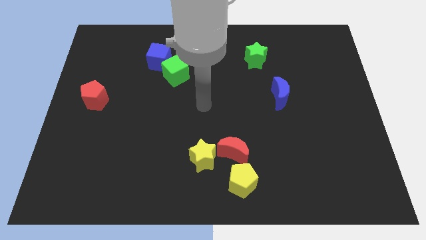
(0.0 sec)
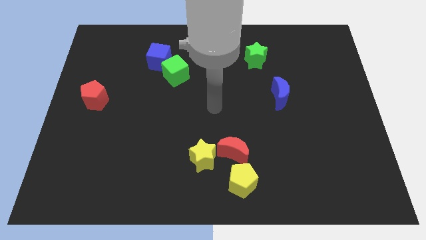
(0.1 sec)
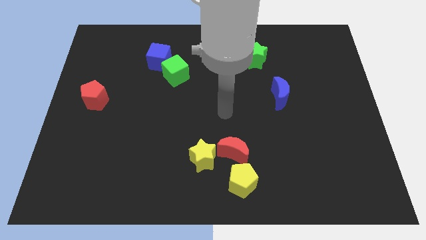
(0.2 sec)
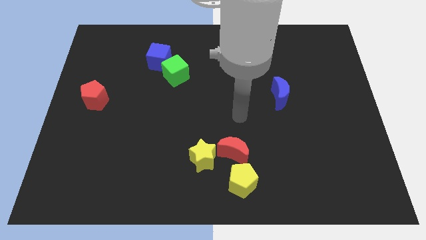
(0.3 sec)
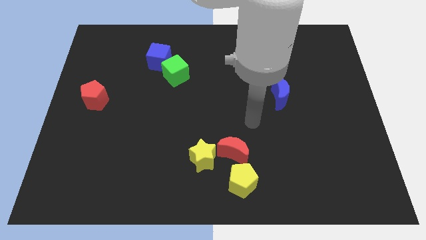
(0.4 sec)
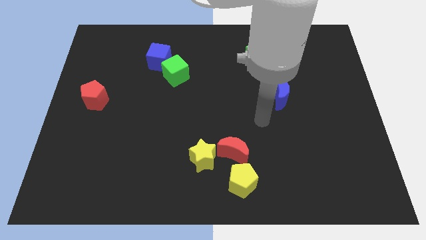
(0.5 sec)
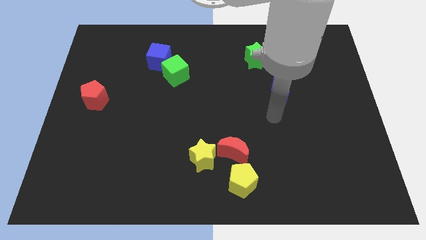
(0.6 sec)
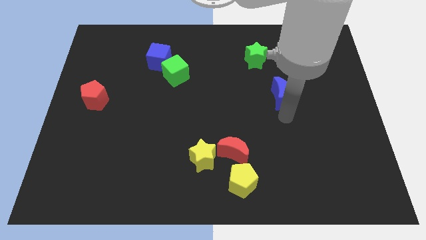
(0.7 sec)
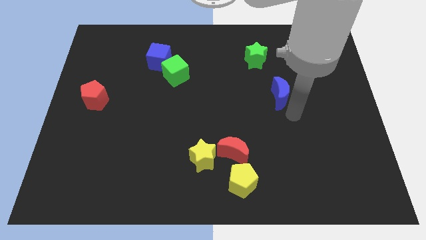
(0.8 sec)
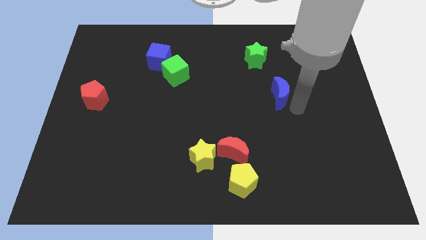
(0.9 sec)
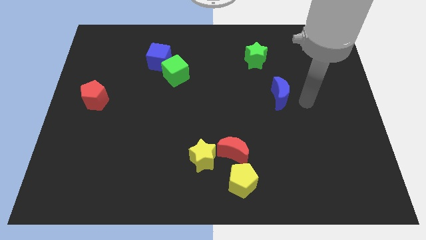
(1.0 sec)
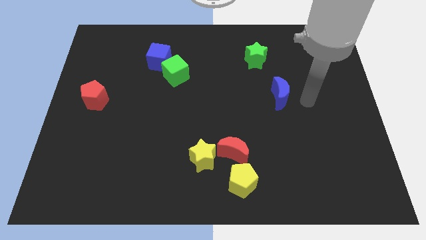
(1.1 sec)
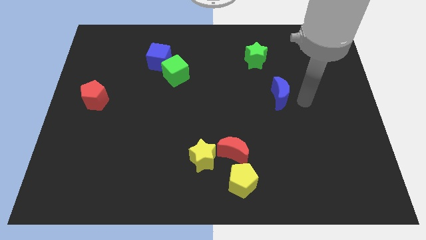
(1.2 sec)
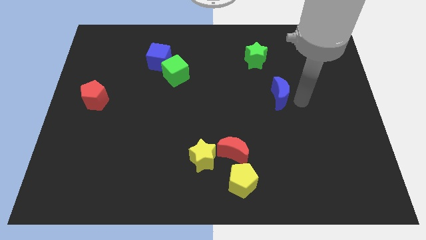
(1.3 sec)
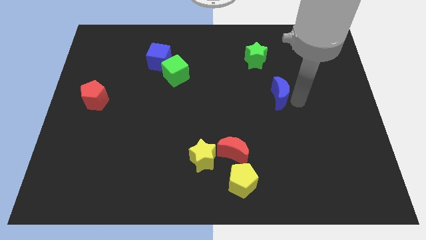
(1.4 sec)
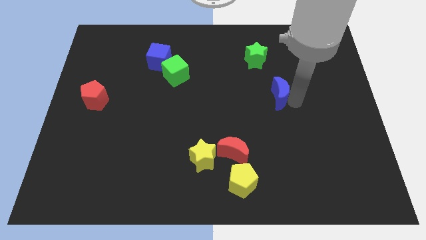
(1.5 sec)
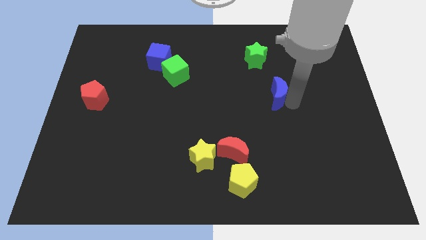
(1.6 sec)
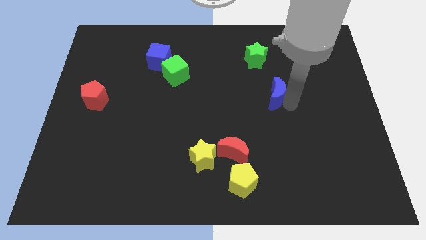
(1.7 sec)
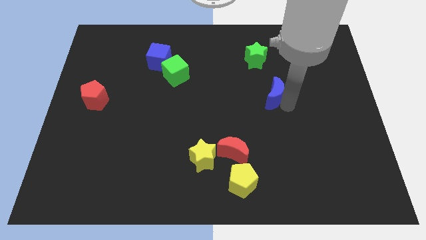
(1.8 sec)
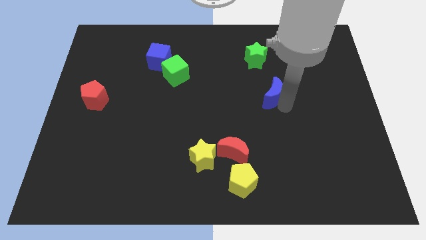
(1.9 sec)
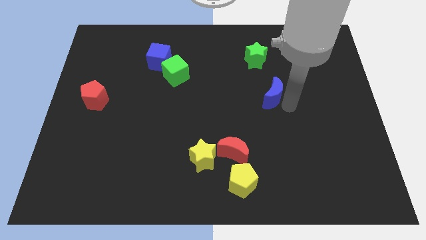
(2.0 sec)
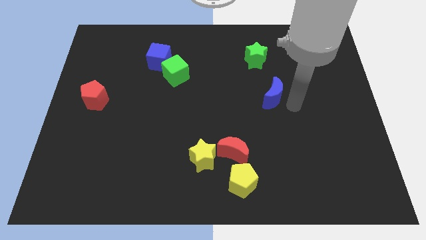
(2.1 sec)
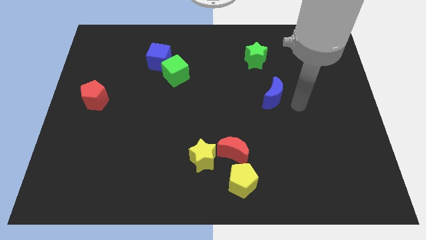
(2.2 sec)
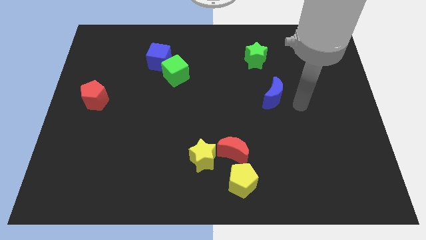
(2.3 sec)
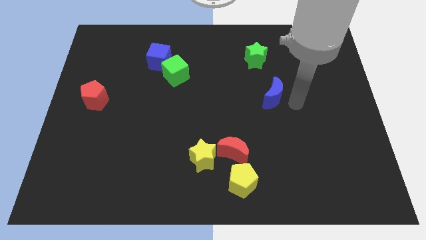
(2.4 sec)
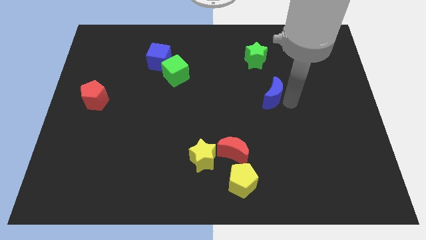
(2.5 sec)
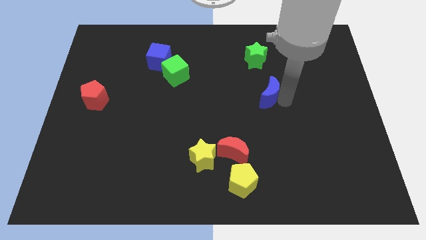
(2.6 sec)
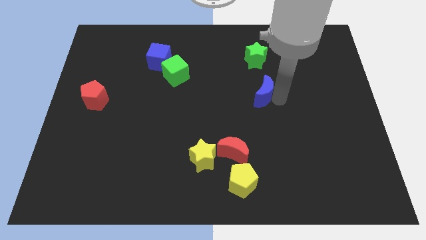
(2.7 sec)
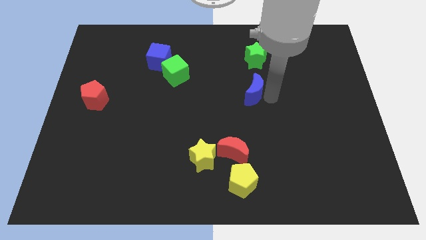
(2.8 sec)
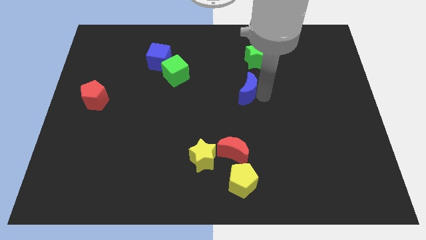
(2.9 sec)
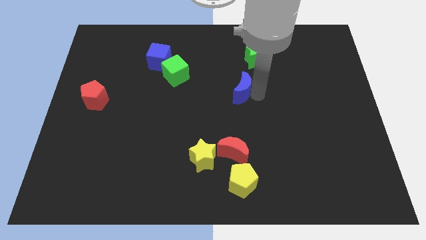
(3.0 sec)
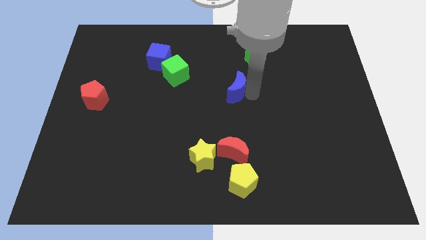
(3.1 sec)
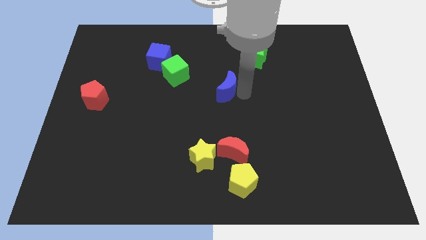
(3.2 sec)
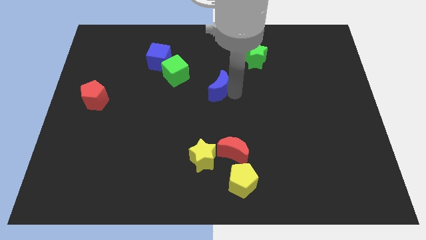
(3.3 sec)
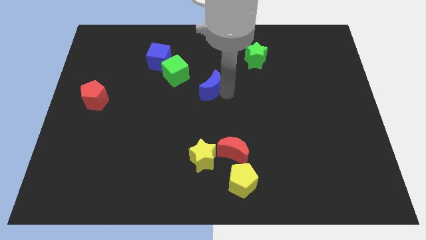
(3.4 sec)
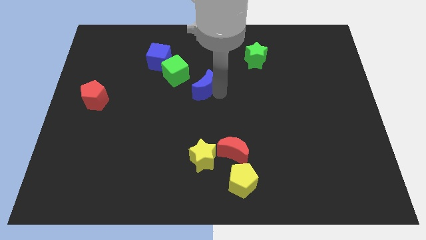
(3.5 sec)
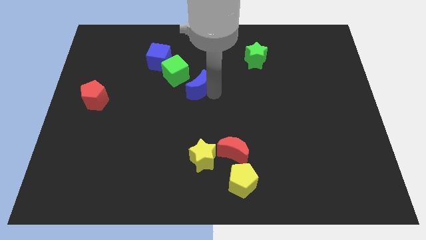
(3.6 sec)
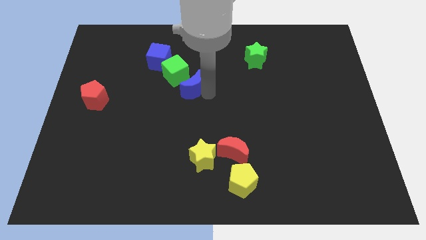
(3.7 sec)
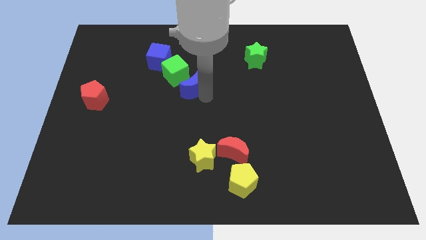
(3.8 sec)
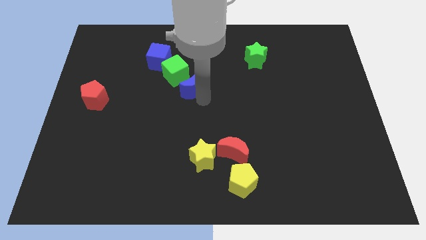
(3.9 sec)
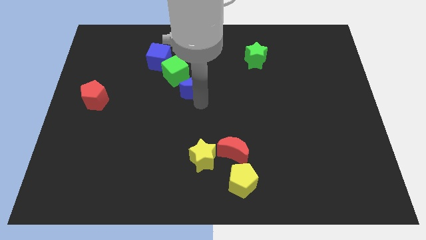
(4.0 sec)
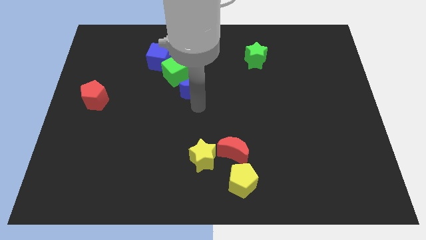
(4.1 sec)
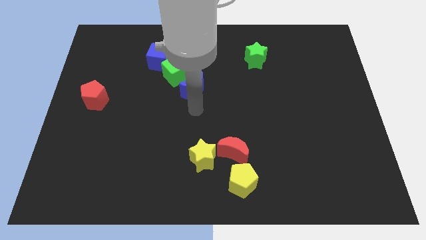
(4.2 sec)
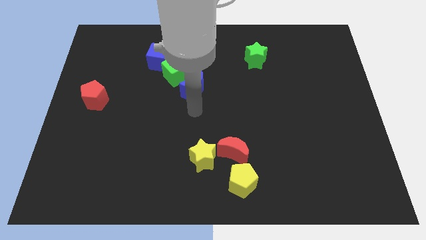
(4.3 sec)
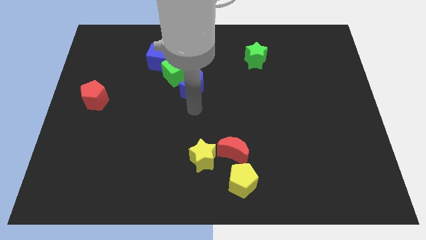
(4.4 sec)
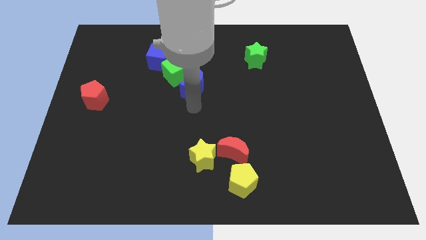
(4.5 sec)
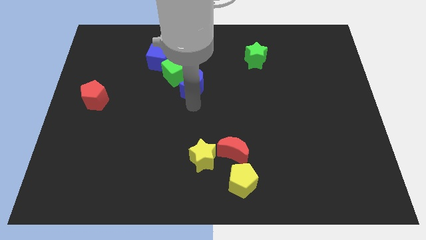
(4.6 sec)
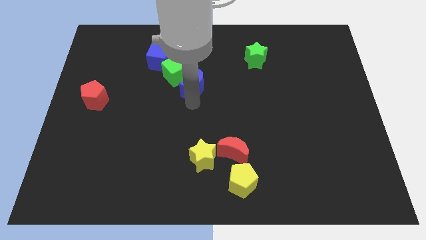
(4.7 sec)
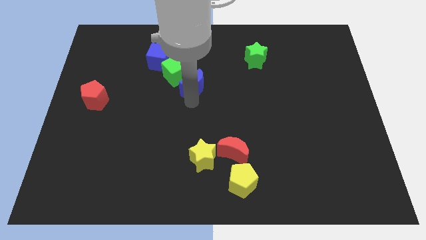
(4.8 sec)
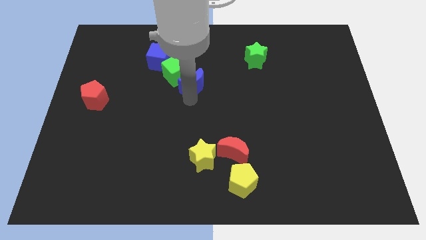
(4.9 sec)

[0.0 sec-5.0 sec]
move the blue moon to the green cube

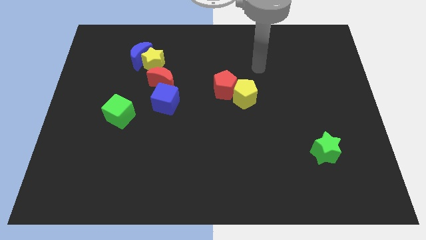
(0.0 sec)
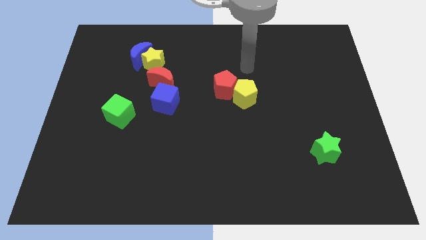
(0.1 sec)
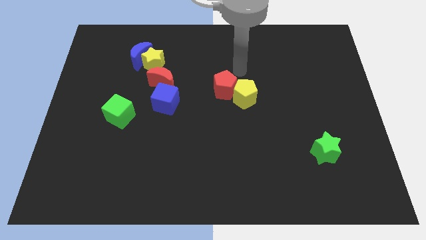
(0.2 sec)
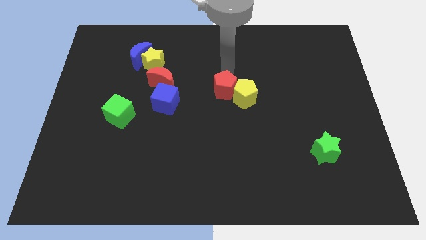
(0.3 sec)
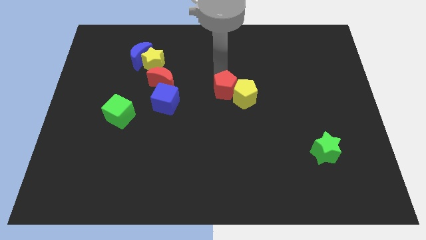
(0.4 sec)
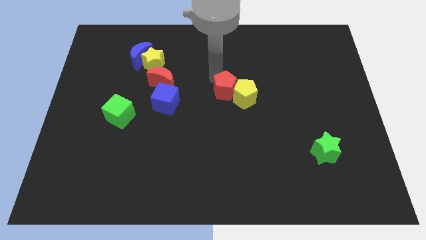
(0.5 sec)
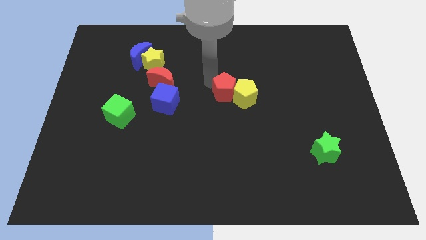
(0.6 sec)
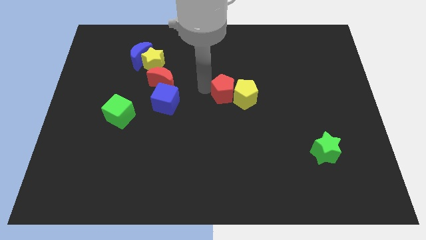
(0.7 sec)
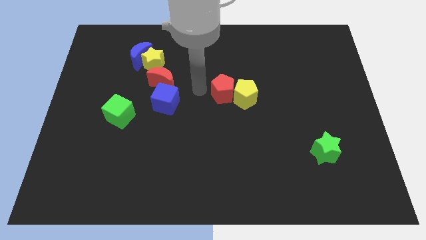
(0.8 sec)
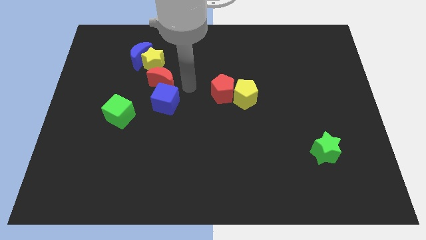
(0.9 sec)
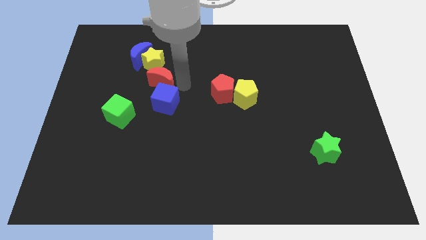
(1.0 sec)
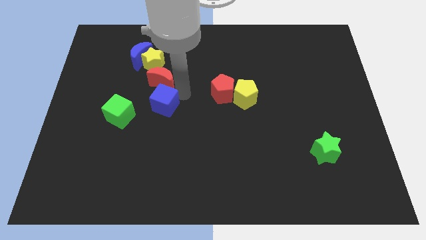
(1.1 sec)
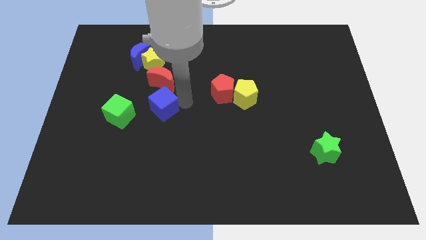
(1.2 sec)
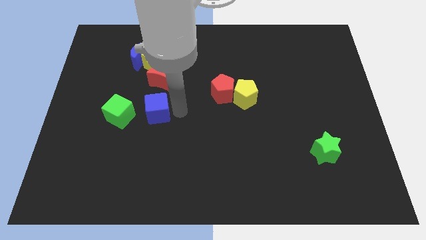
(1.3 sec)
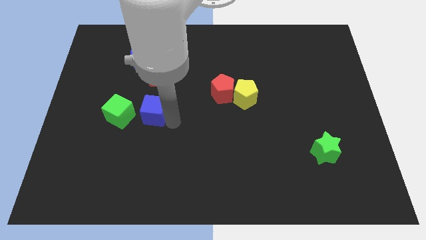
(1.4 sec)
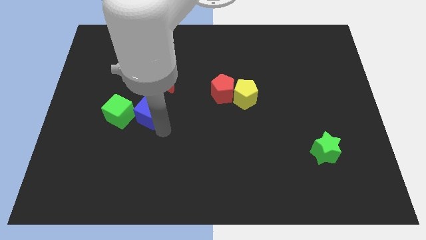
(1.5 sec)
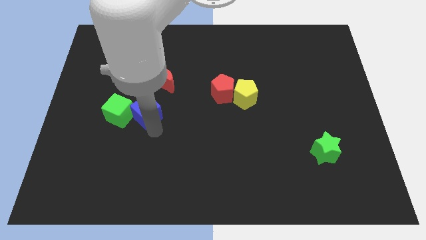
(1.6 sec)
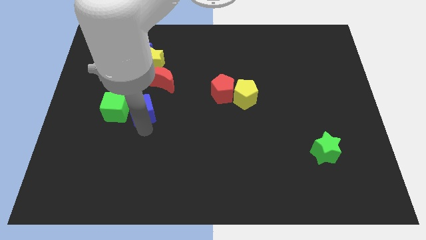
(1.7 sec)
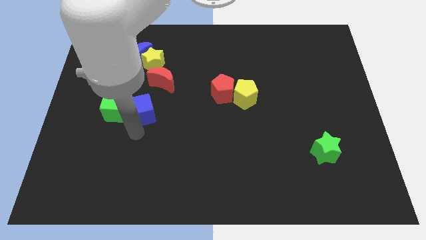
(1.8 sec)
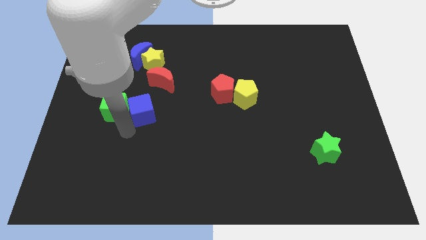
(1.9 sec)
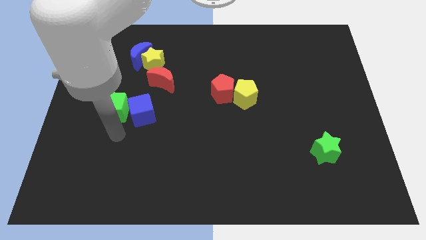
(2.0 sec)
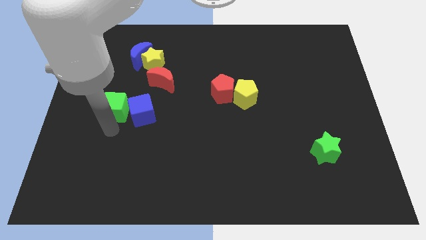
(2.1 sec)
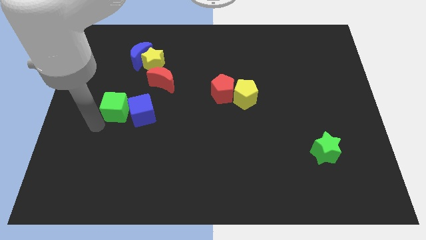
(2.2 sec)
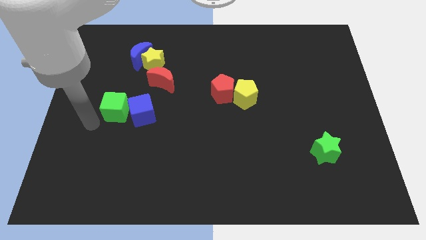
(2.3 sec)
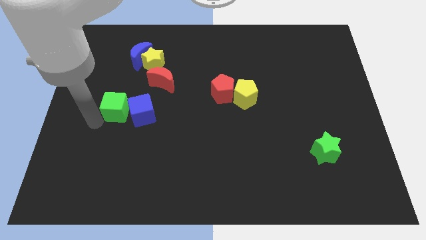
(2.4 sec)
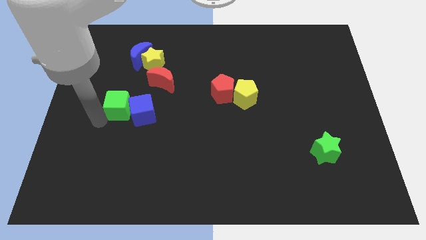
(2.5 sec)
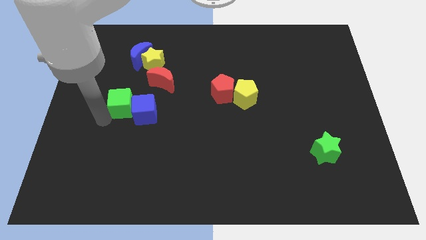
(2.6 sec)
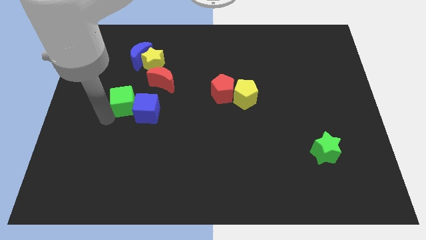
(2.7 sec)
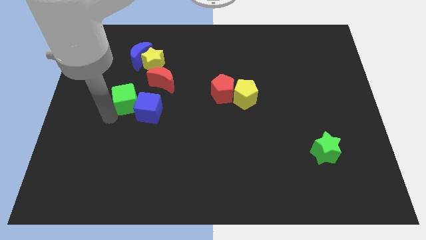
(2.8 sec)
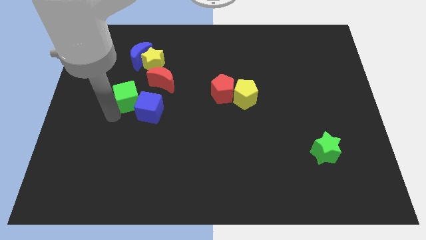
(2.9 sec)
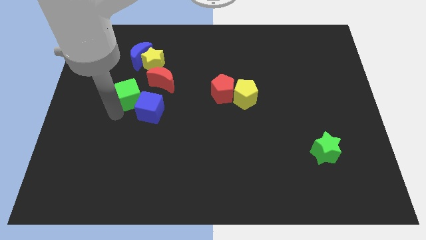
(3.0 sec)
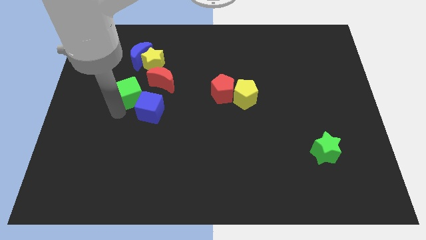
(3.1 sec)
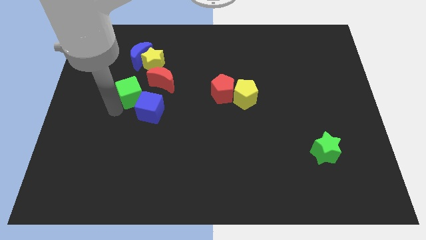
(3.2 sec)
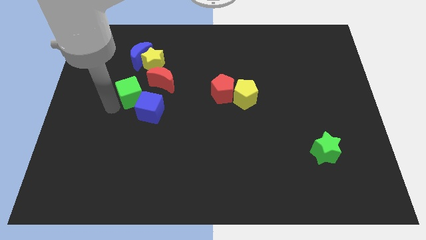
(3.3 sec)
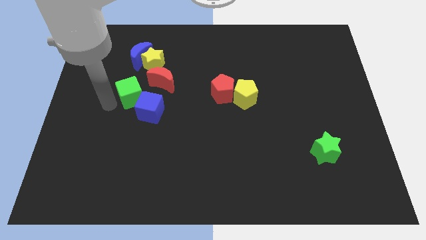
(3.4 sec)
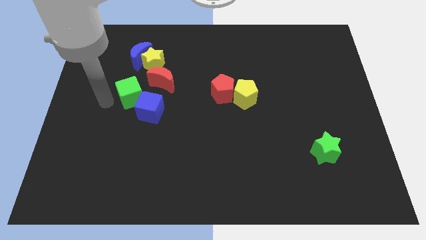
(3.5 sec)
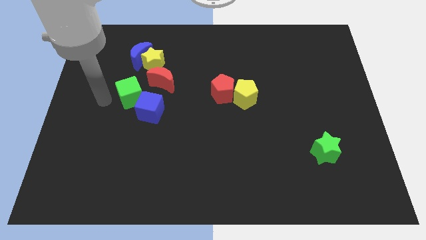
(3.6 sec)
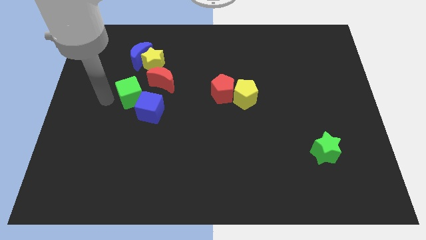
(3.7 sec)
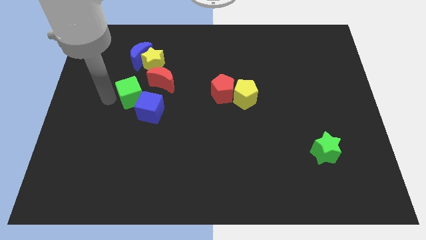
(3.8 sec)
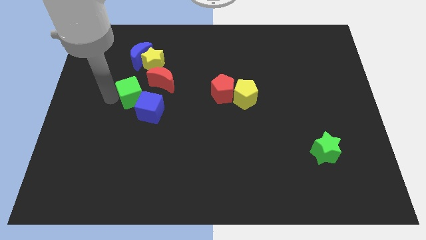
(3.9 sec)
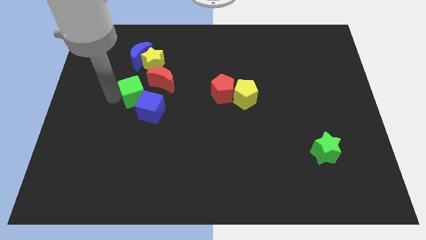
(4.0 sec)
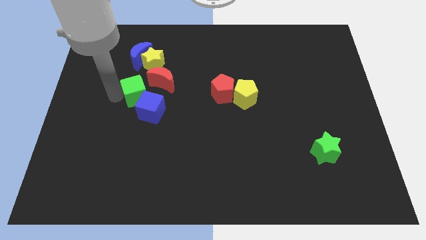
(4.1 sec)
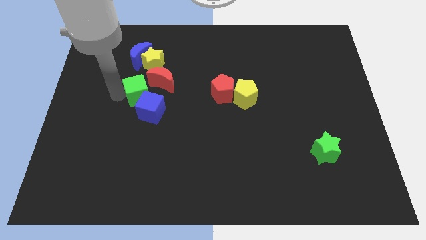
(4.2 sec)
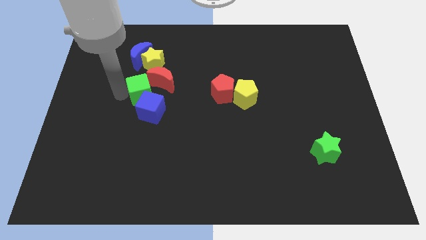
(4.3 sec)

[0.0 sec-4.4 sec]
put the green cube next to the red moon
